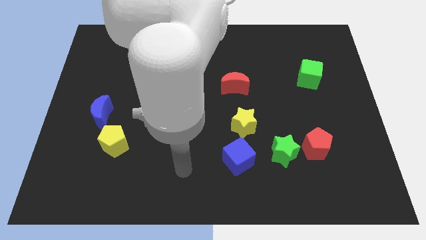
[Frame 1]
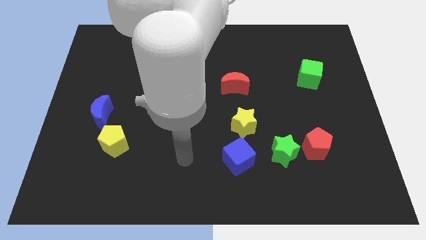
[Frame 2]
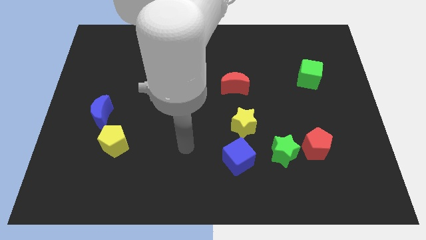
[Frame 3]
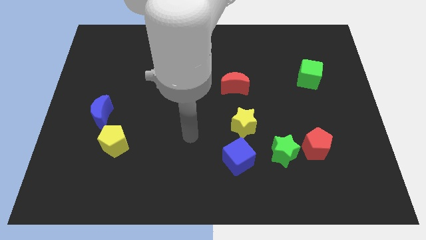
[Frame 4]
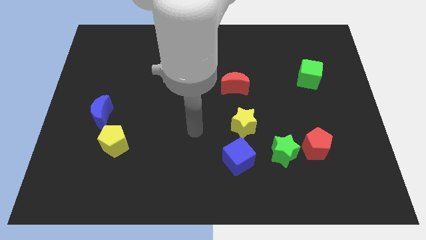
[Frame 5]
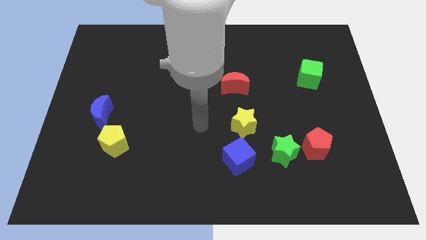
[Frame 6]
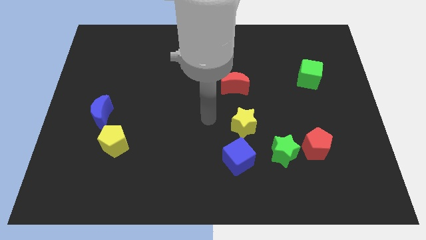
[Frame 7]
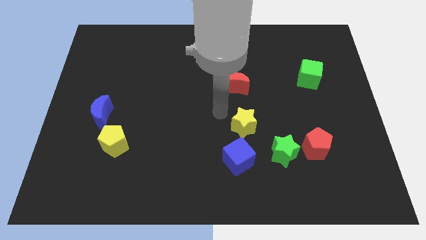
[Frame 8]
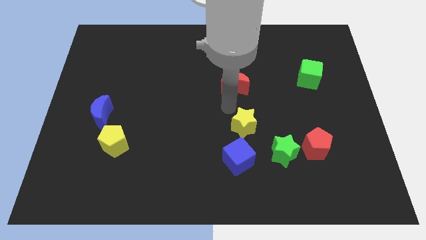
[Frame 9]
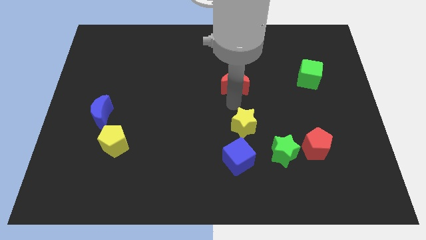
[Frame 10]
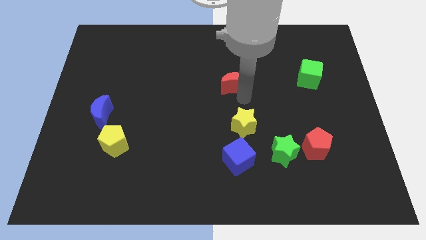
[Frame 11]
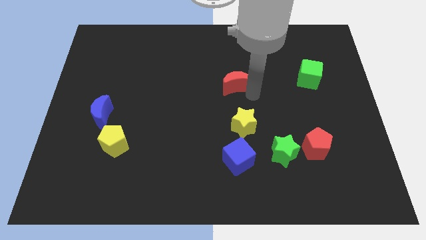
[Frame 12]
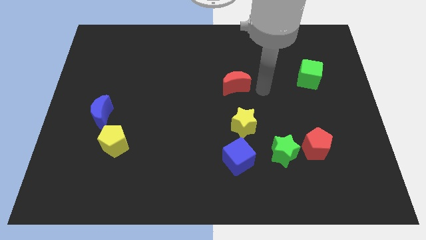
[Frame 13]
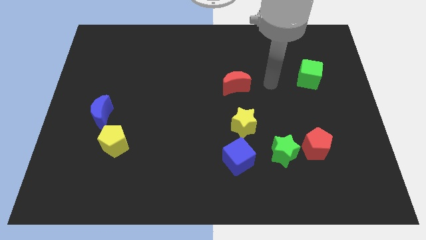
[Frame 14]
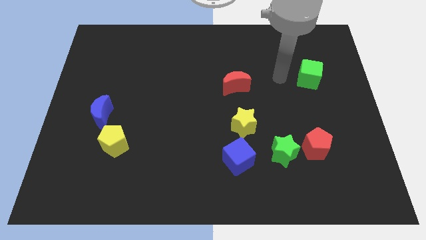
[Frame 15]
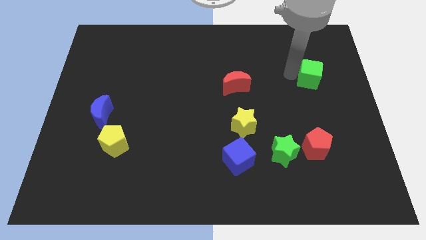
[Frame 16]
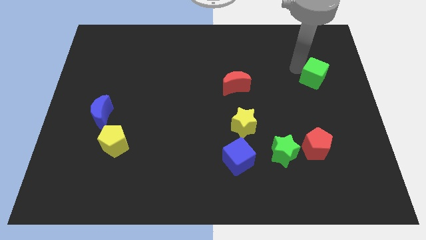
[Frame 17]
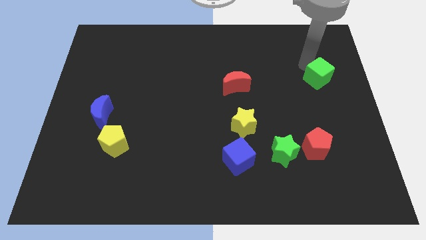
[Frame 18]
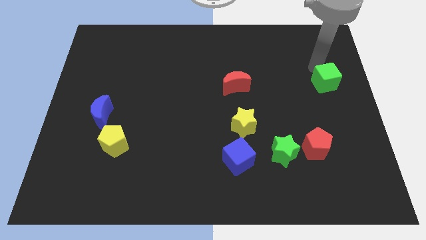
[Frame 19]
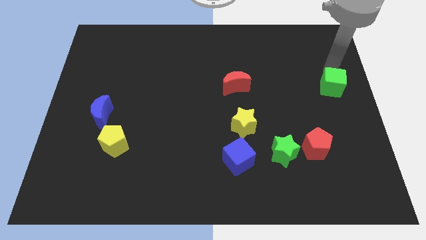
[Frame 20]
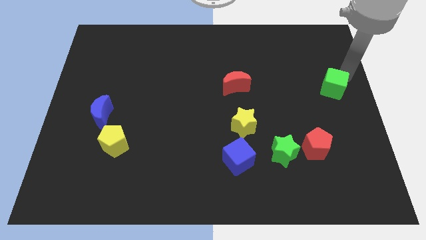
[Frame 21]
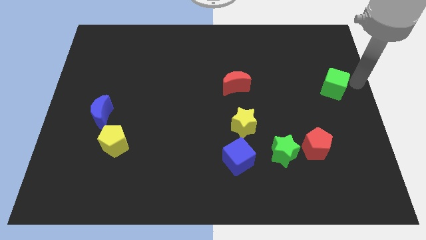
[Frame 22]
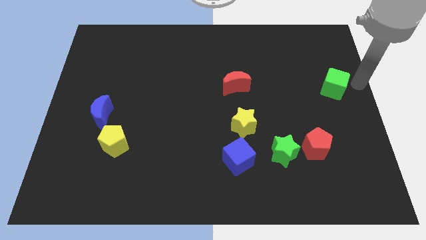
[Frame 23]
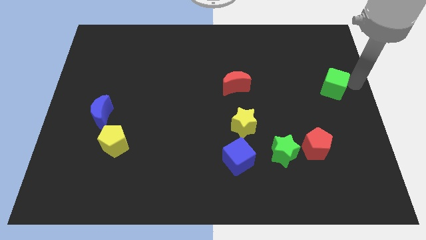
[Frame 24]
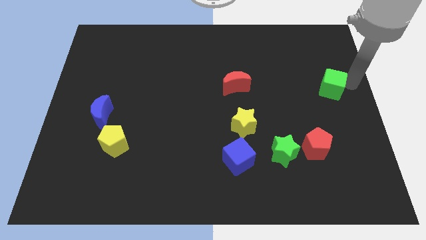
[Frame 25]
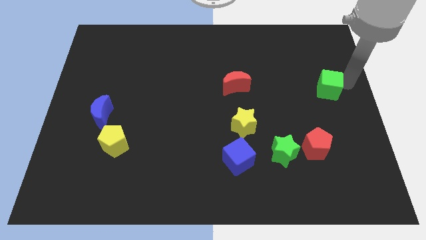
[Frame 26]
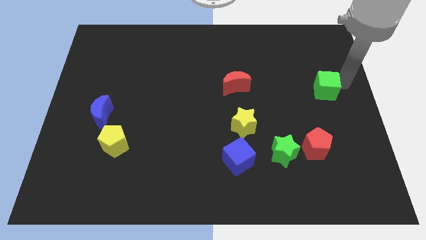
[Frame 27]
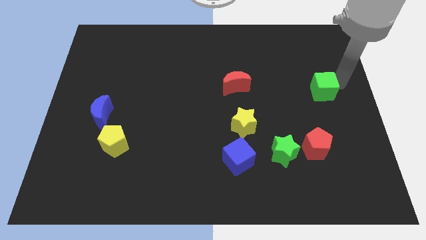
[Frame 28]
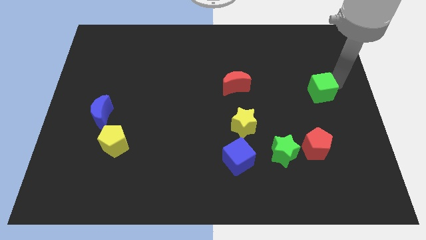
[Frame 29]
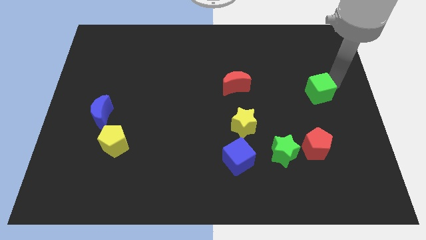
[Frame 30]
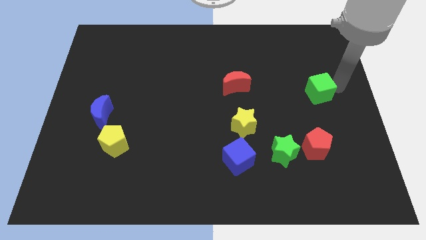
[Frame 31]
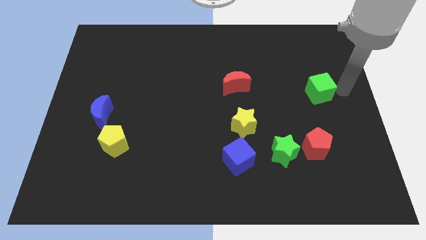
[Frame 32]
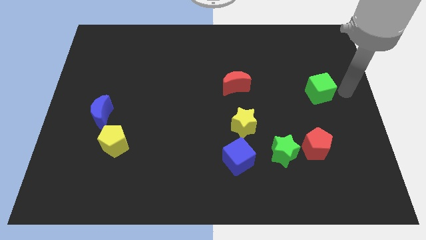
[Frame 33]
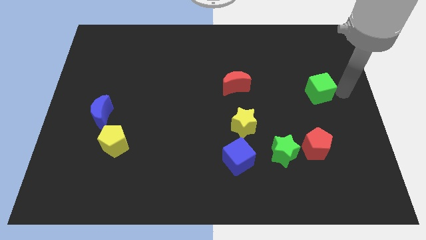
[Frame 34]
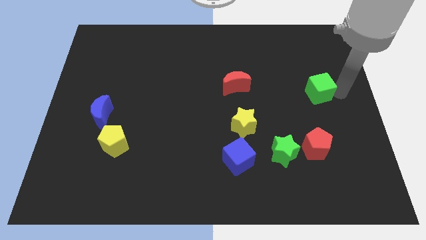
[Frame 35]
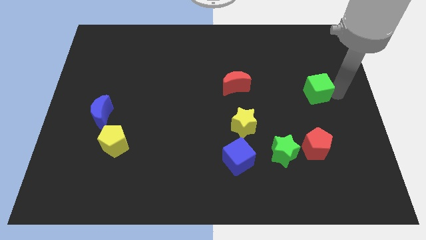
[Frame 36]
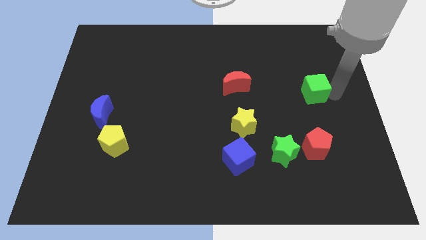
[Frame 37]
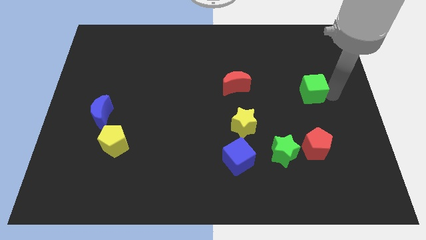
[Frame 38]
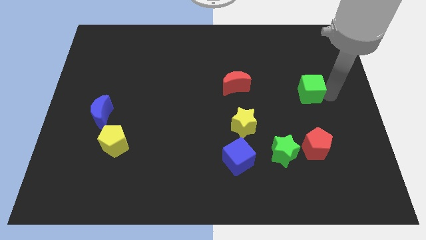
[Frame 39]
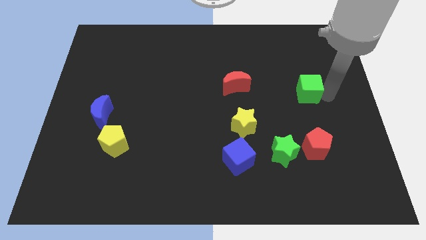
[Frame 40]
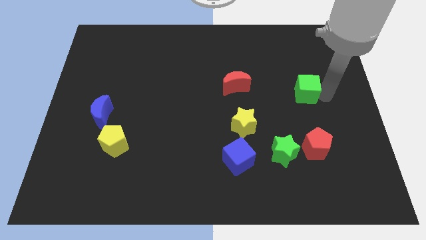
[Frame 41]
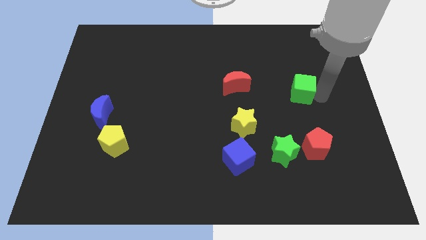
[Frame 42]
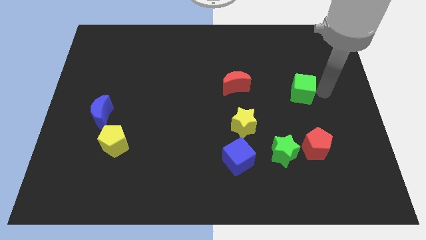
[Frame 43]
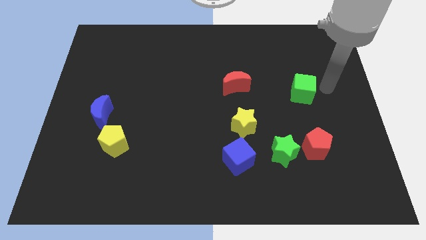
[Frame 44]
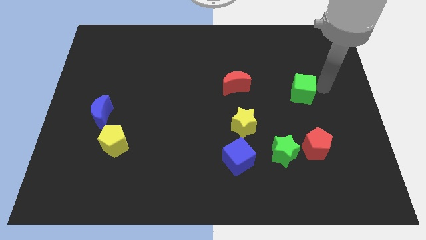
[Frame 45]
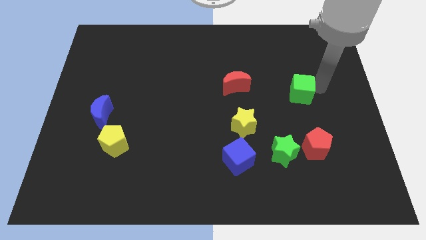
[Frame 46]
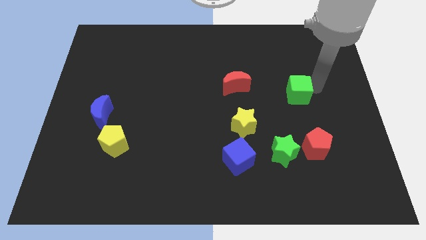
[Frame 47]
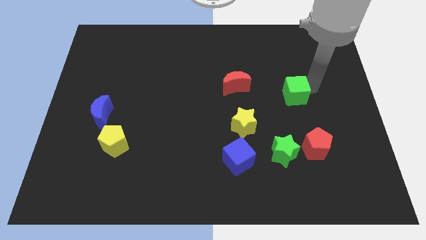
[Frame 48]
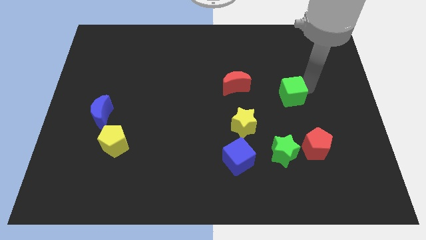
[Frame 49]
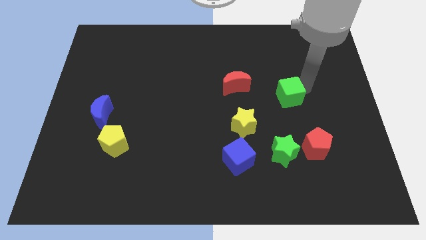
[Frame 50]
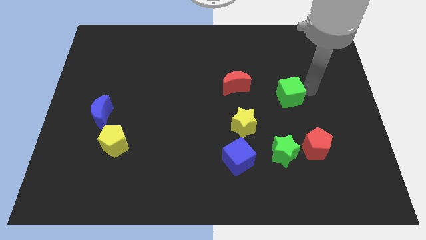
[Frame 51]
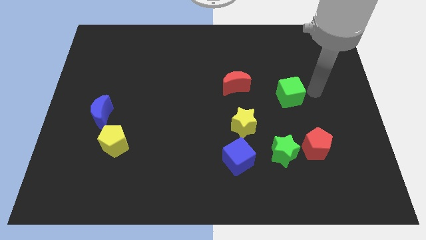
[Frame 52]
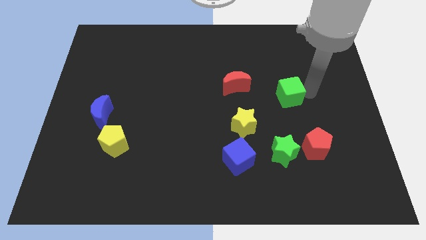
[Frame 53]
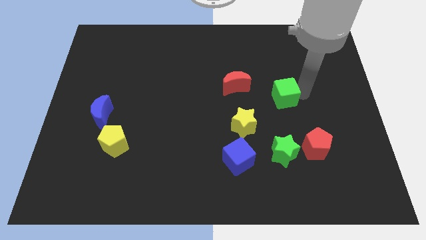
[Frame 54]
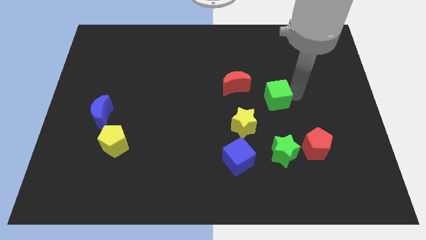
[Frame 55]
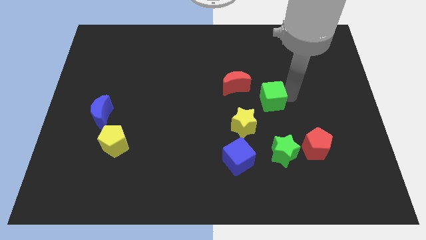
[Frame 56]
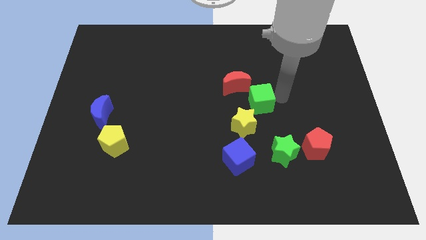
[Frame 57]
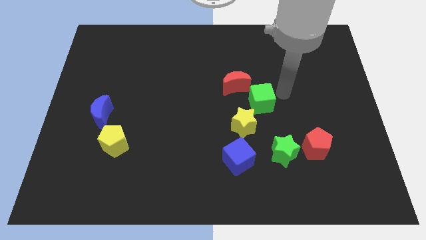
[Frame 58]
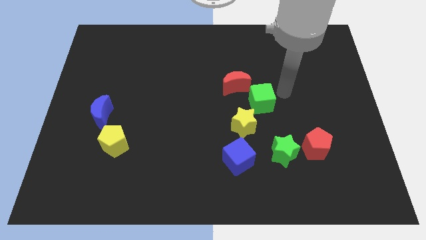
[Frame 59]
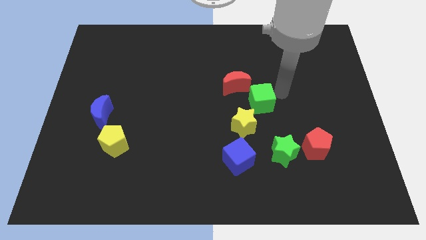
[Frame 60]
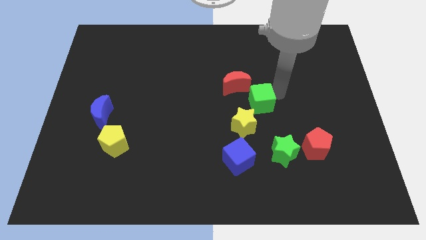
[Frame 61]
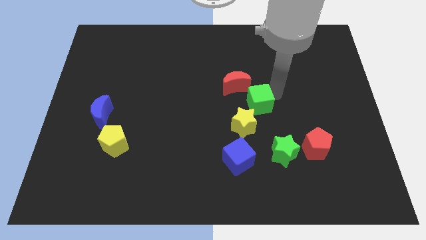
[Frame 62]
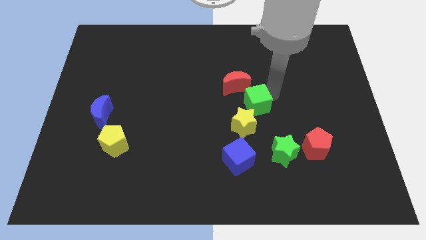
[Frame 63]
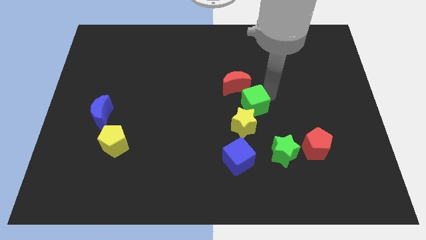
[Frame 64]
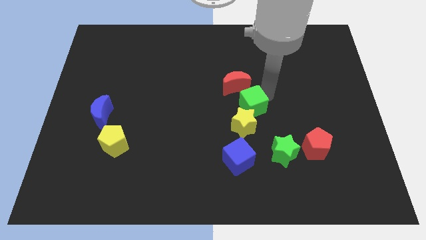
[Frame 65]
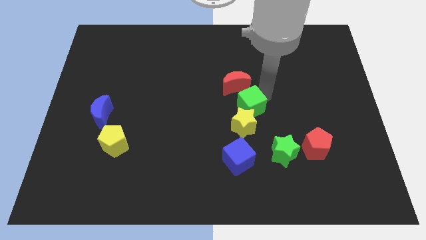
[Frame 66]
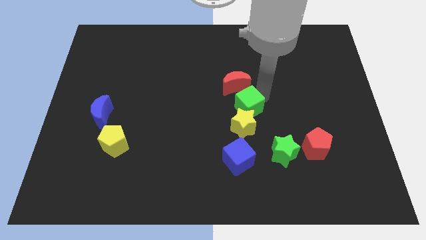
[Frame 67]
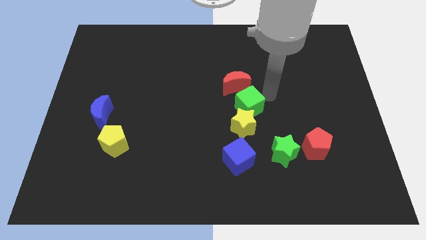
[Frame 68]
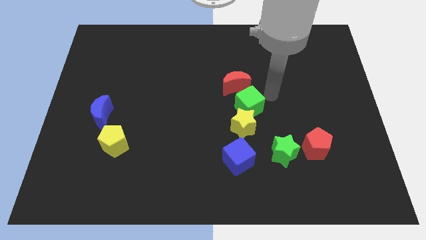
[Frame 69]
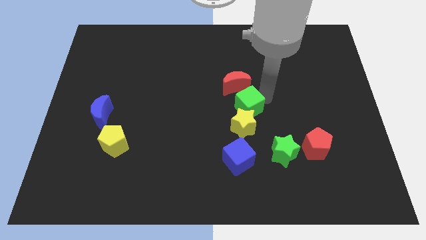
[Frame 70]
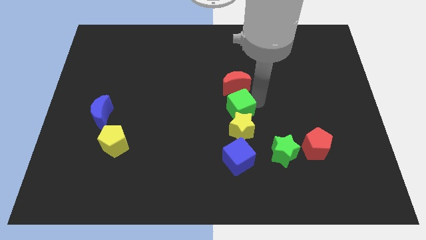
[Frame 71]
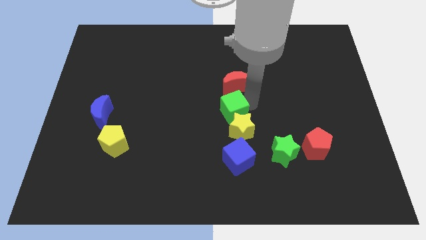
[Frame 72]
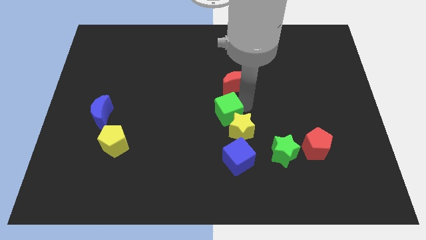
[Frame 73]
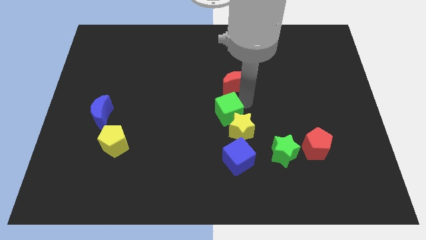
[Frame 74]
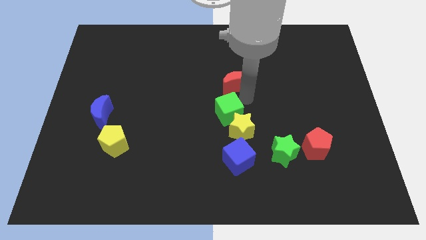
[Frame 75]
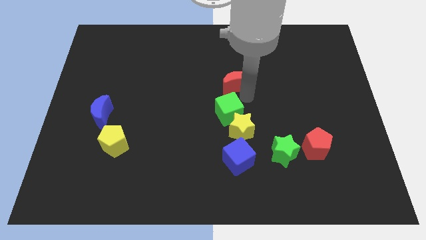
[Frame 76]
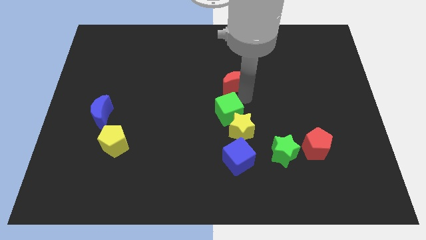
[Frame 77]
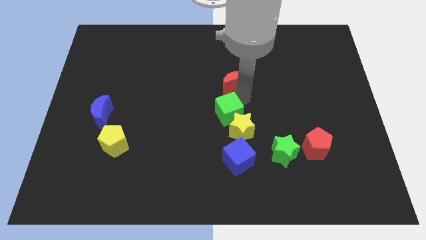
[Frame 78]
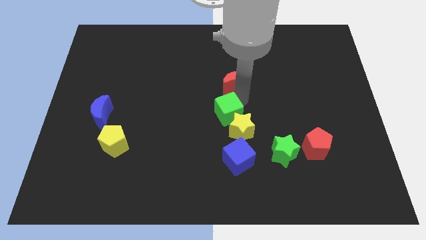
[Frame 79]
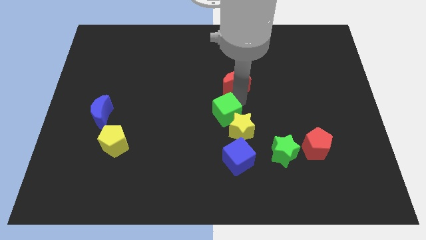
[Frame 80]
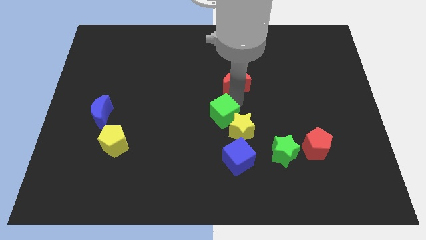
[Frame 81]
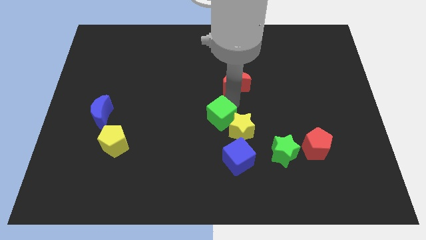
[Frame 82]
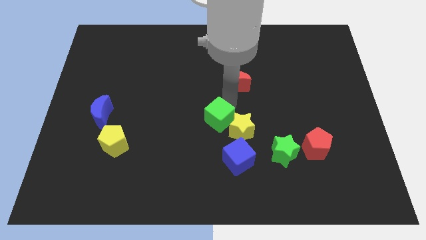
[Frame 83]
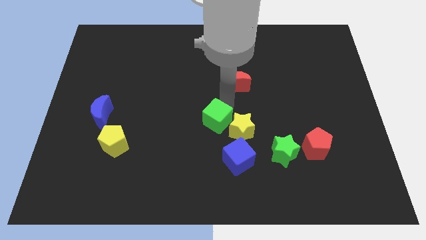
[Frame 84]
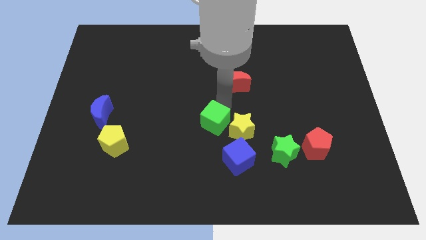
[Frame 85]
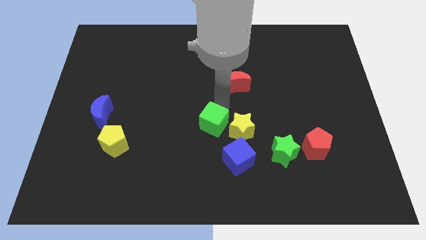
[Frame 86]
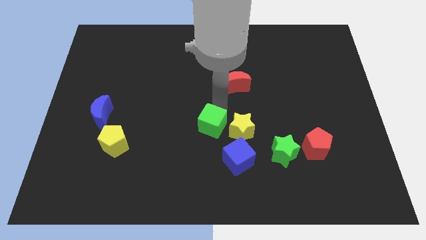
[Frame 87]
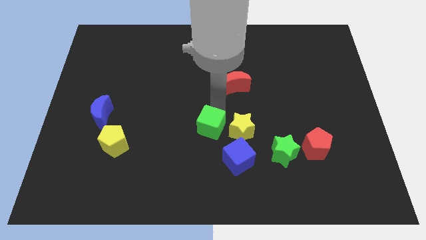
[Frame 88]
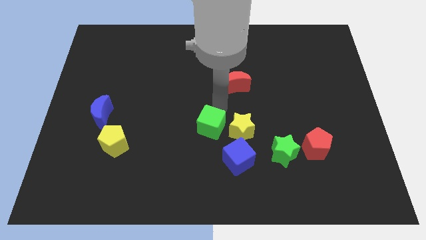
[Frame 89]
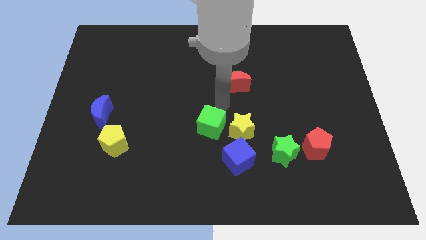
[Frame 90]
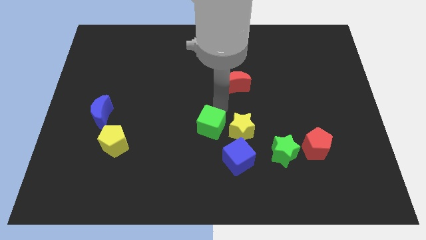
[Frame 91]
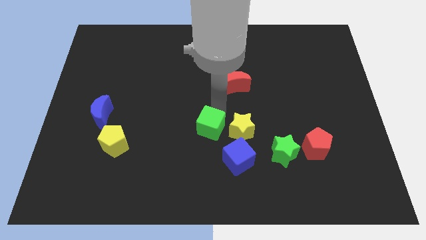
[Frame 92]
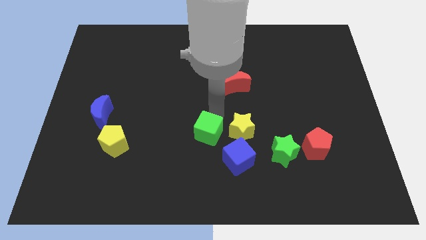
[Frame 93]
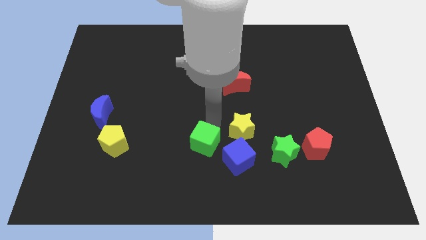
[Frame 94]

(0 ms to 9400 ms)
slide the green cube just left of the blue cube
